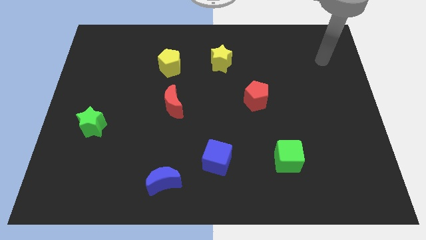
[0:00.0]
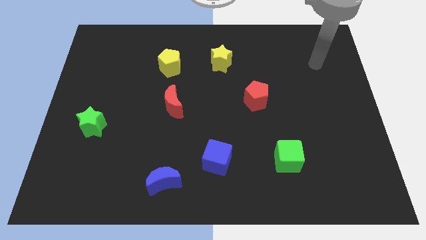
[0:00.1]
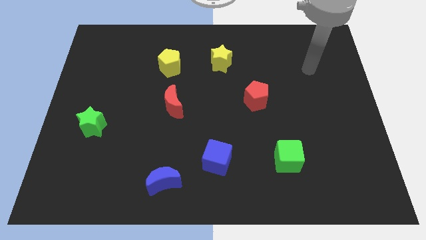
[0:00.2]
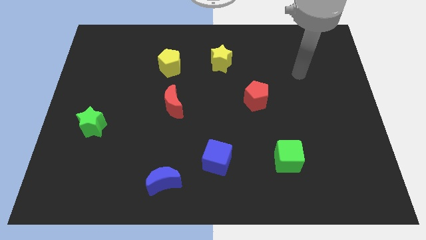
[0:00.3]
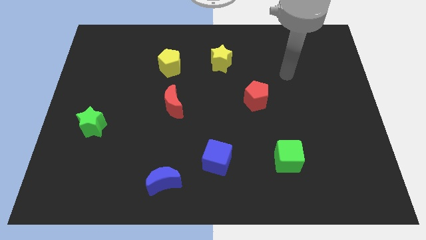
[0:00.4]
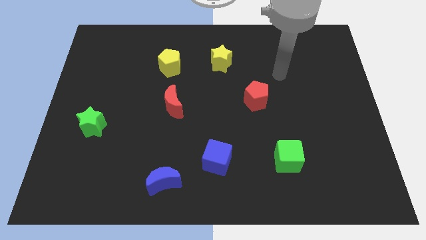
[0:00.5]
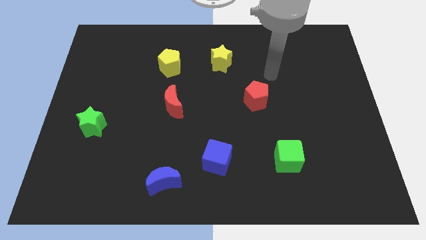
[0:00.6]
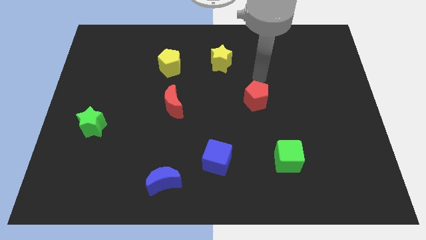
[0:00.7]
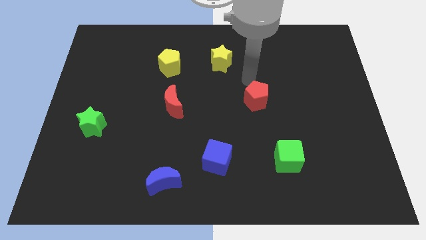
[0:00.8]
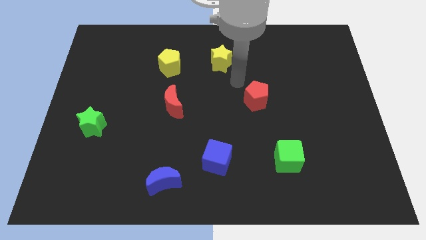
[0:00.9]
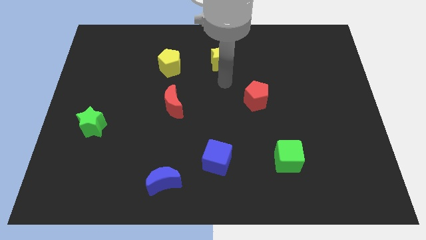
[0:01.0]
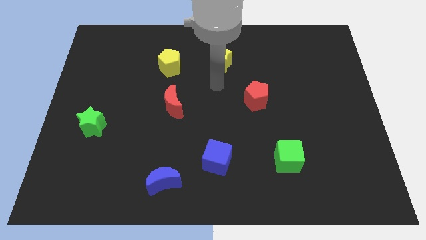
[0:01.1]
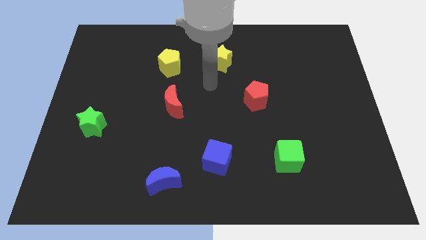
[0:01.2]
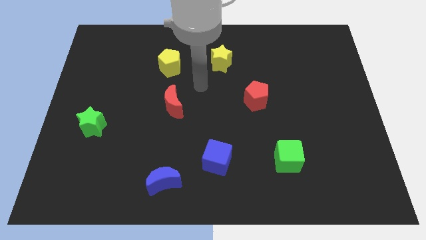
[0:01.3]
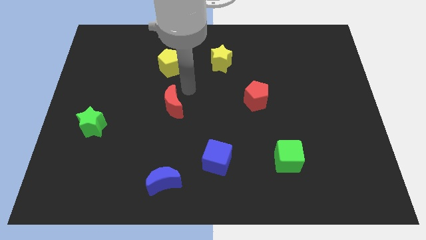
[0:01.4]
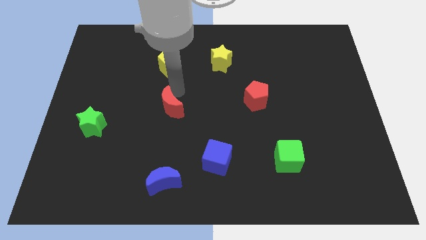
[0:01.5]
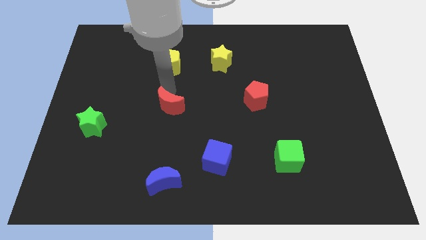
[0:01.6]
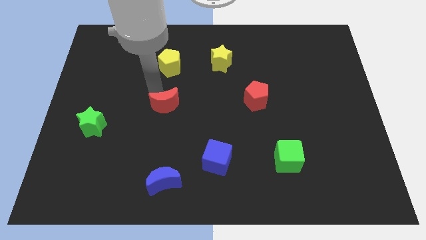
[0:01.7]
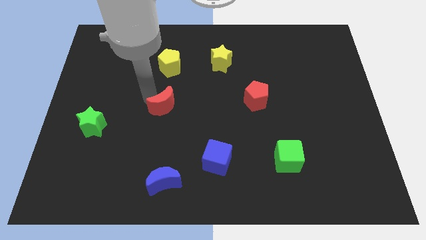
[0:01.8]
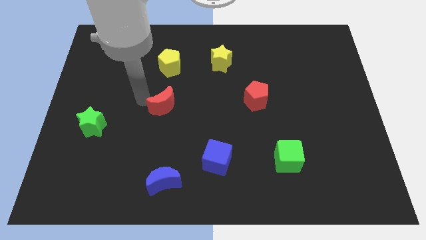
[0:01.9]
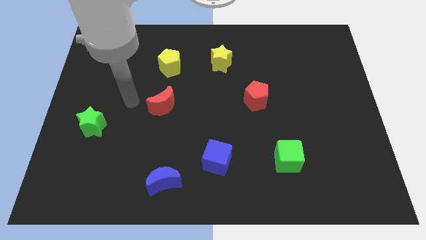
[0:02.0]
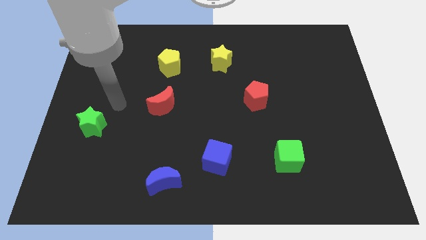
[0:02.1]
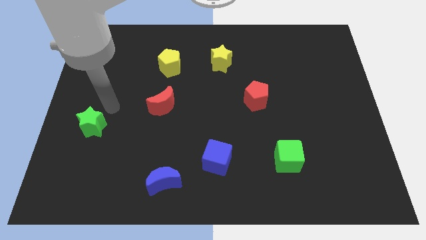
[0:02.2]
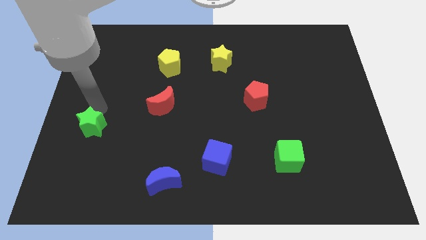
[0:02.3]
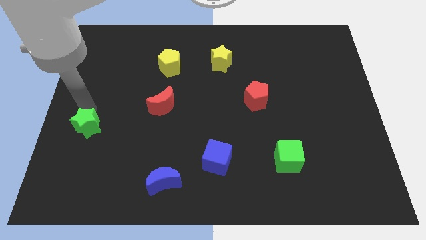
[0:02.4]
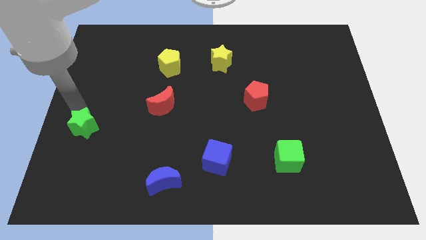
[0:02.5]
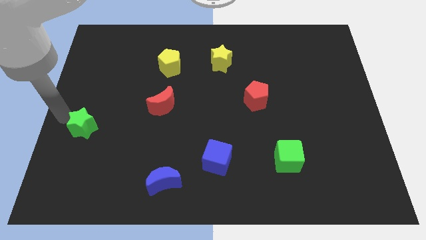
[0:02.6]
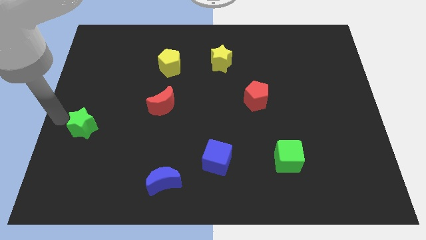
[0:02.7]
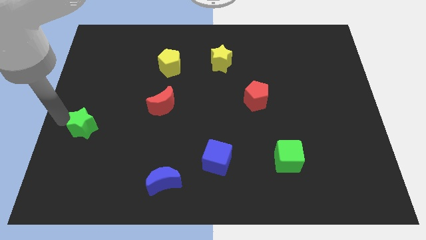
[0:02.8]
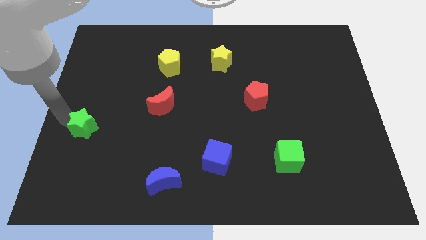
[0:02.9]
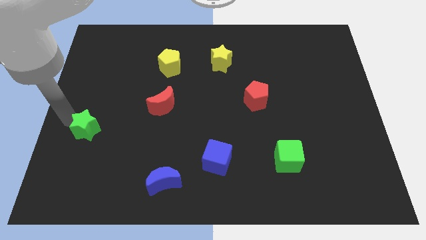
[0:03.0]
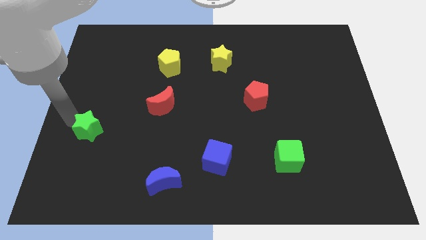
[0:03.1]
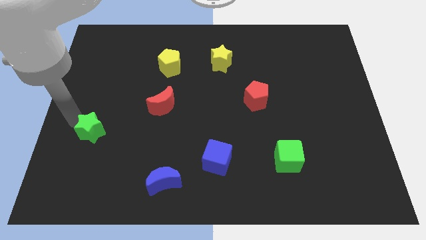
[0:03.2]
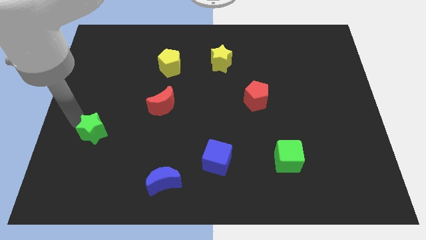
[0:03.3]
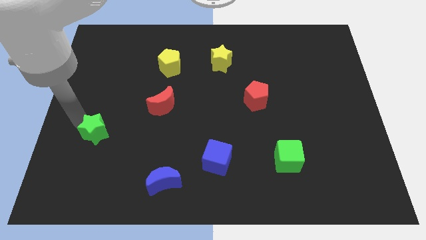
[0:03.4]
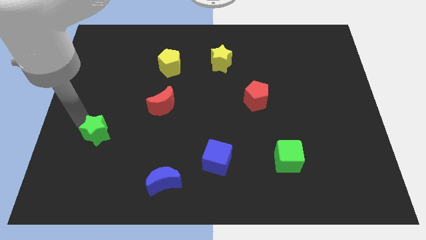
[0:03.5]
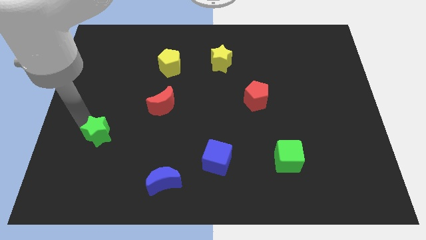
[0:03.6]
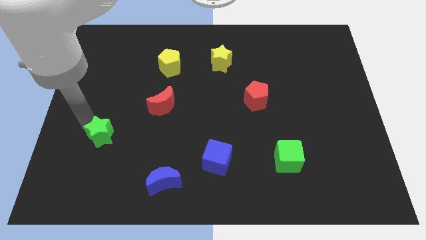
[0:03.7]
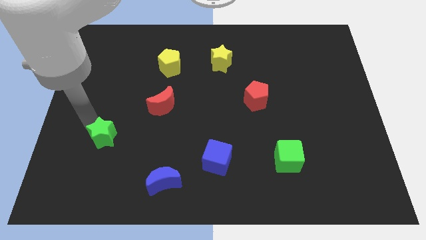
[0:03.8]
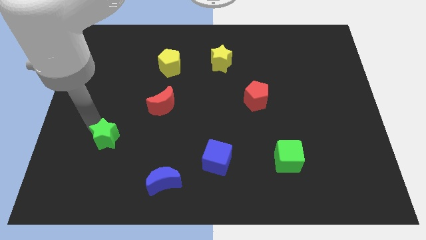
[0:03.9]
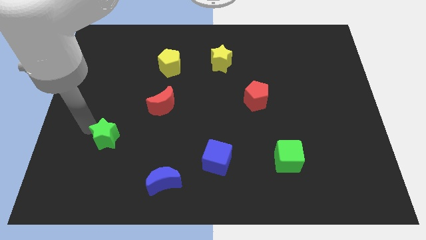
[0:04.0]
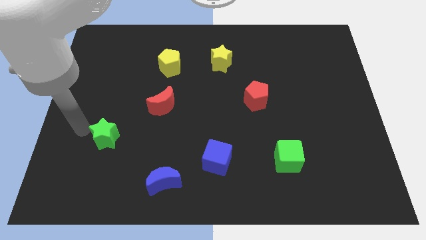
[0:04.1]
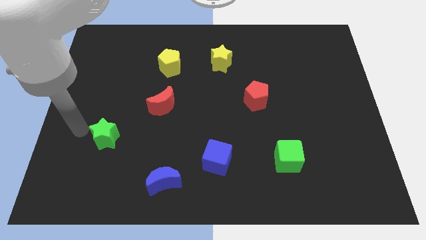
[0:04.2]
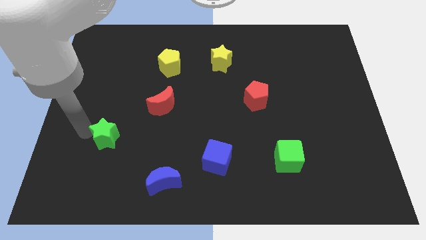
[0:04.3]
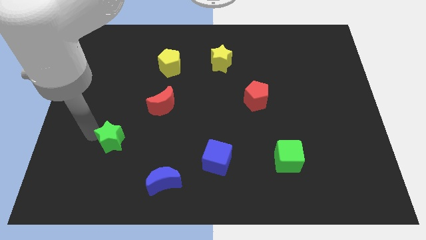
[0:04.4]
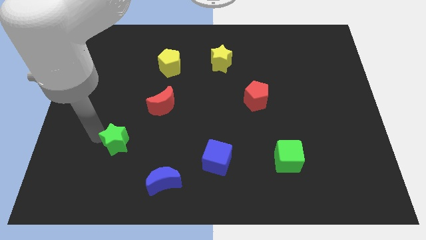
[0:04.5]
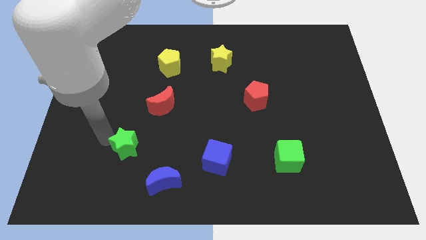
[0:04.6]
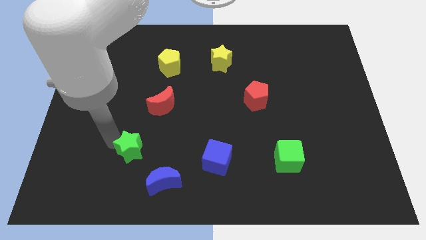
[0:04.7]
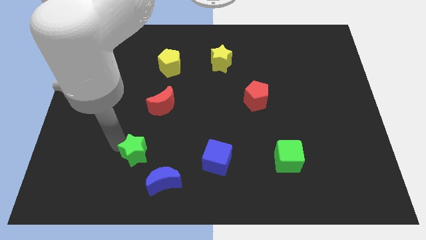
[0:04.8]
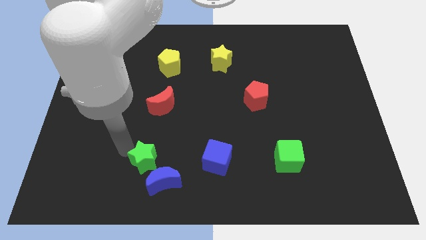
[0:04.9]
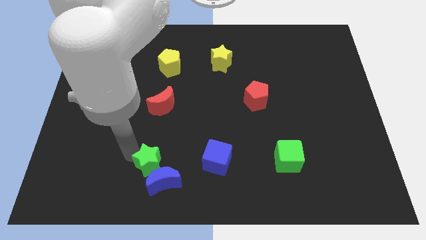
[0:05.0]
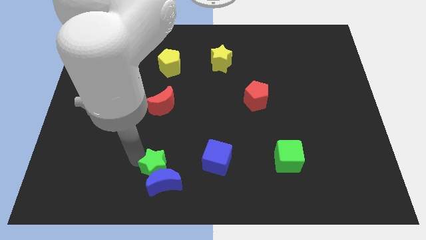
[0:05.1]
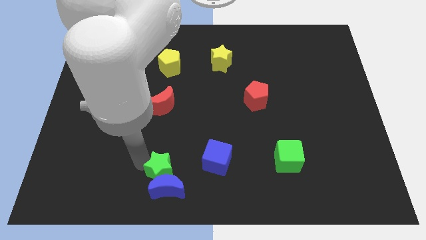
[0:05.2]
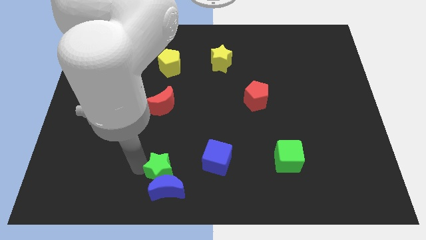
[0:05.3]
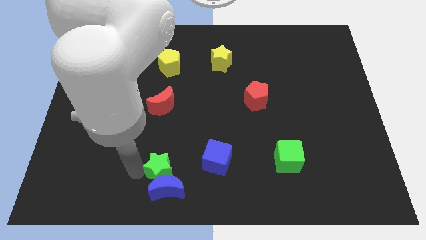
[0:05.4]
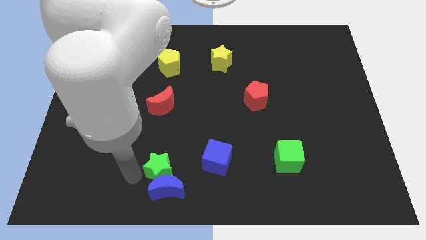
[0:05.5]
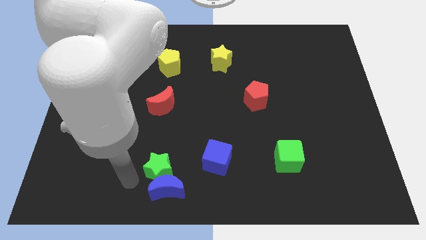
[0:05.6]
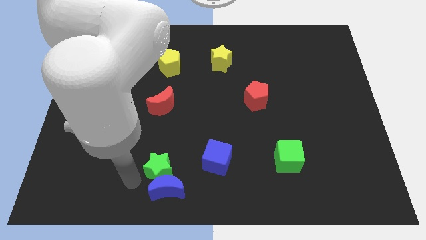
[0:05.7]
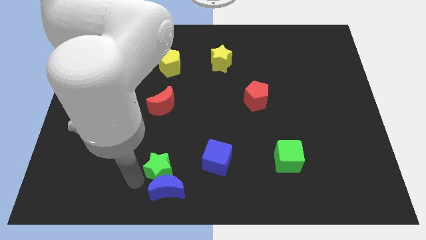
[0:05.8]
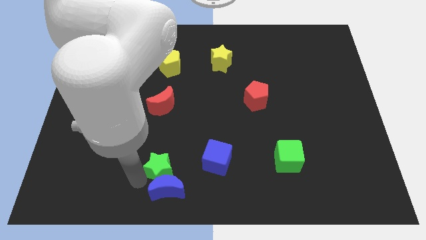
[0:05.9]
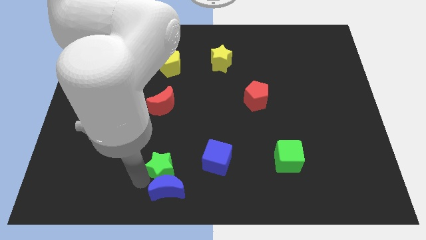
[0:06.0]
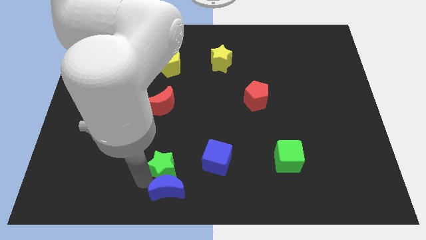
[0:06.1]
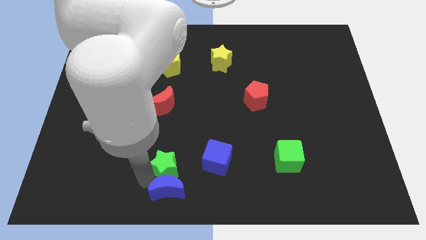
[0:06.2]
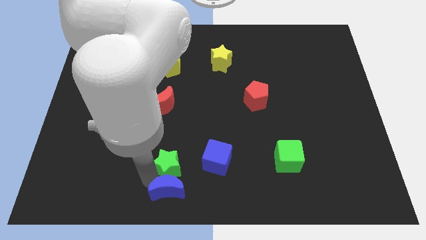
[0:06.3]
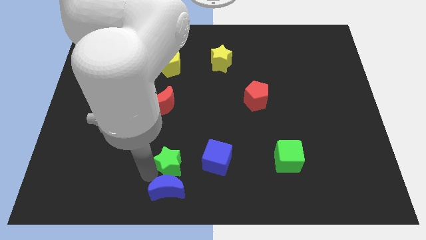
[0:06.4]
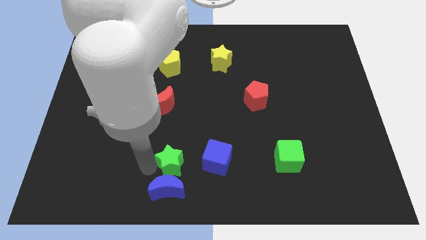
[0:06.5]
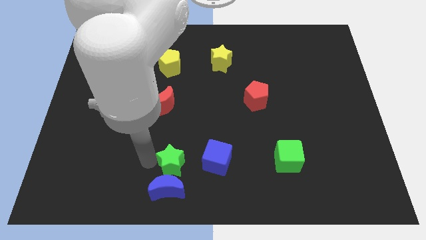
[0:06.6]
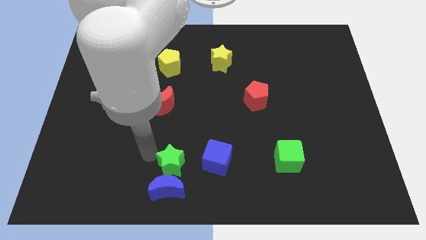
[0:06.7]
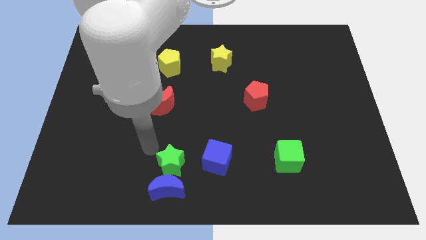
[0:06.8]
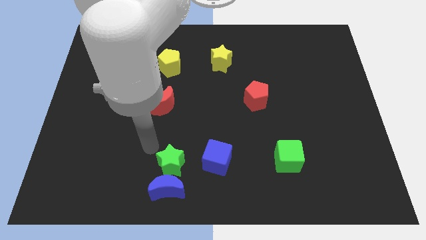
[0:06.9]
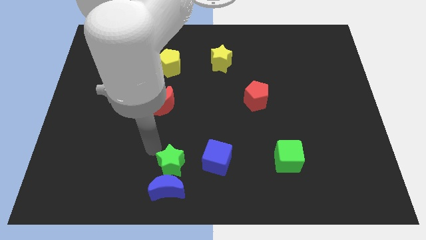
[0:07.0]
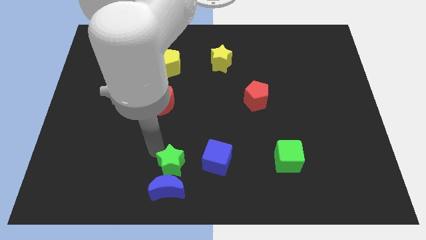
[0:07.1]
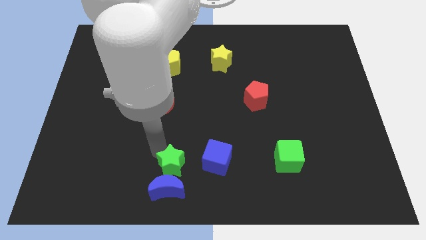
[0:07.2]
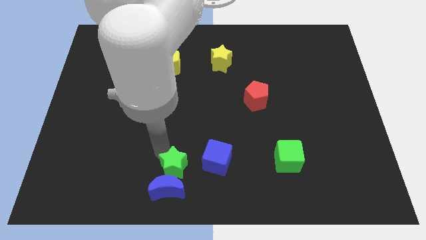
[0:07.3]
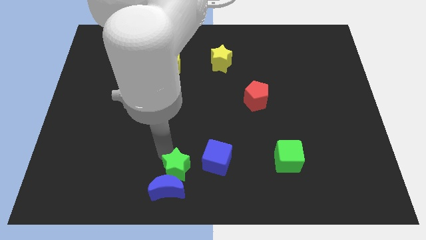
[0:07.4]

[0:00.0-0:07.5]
push the green star diagonally down and to the left of the blue cube
